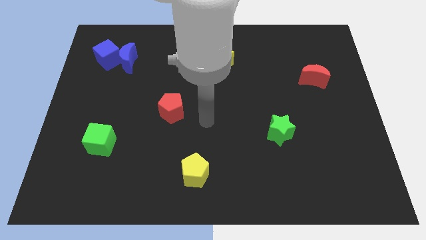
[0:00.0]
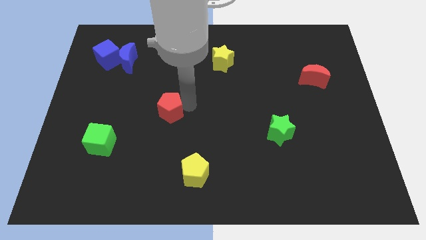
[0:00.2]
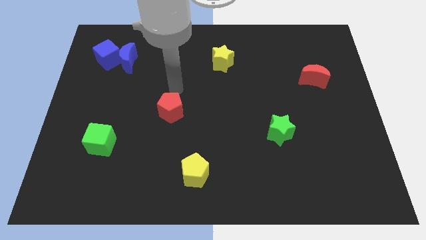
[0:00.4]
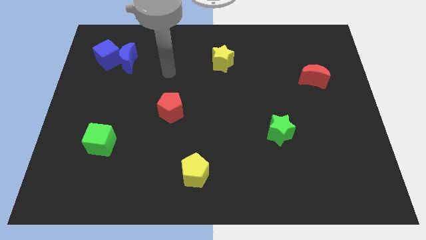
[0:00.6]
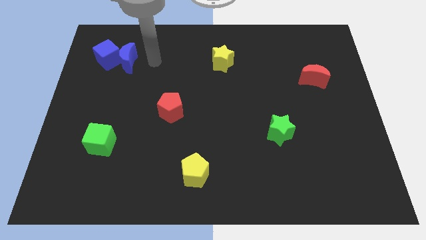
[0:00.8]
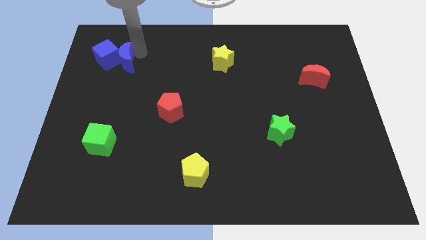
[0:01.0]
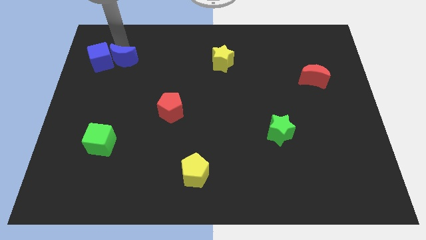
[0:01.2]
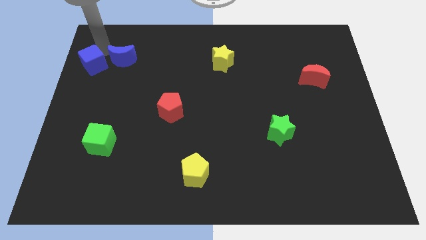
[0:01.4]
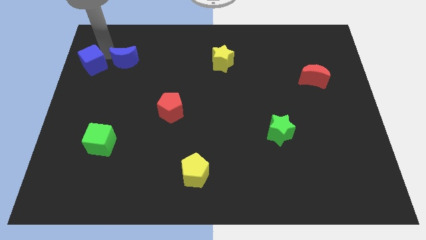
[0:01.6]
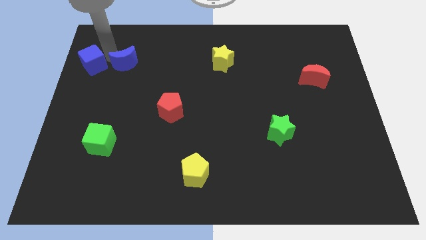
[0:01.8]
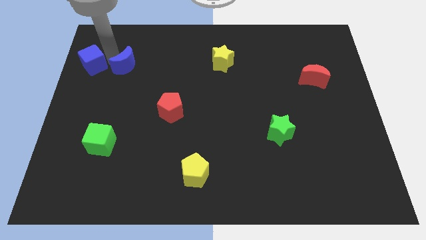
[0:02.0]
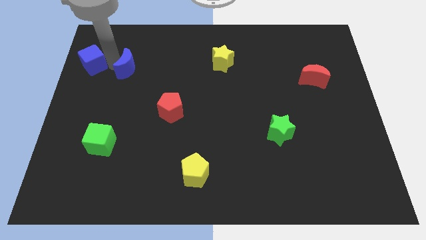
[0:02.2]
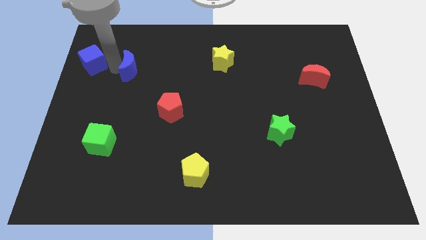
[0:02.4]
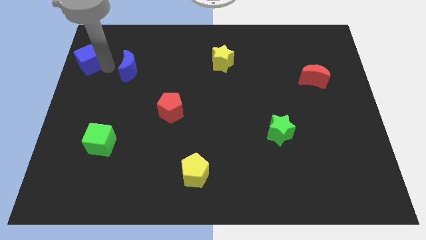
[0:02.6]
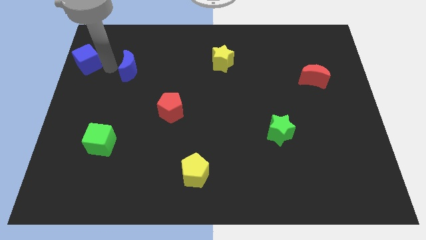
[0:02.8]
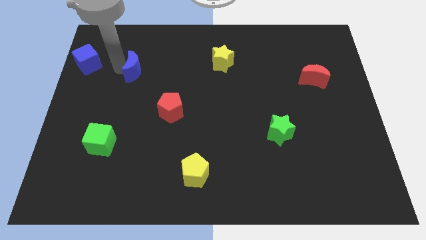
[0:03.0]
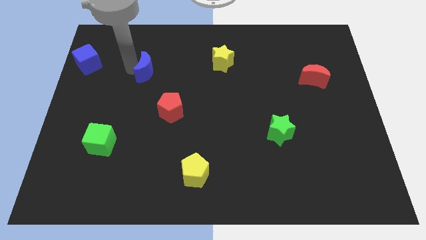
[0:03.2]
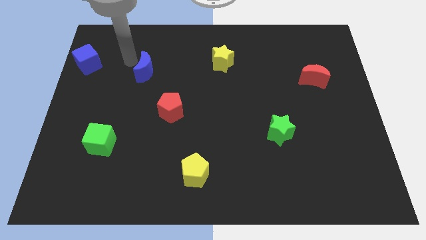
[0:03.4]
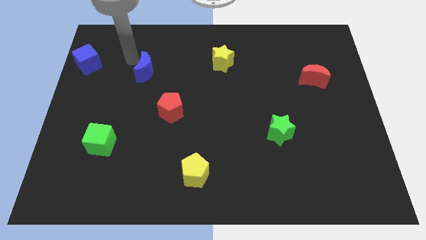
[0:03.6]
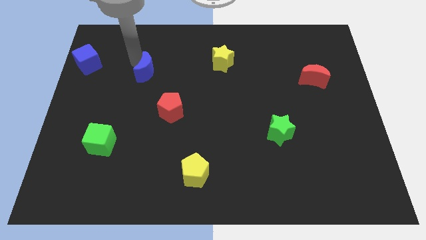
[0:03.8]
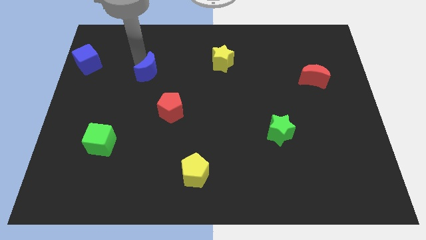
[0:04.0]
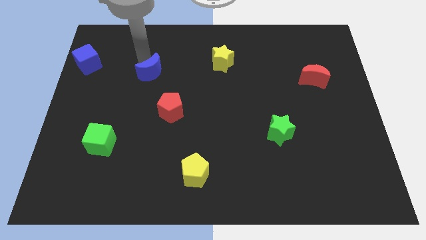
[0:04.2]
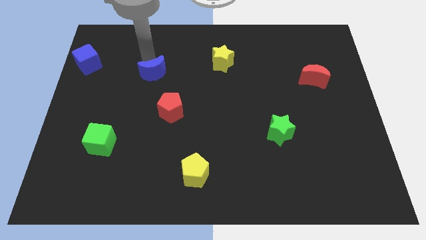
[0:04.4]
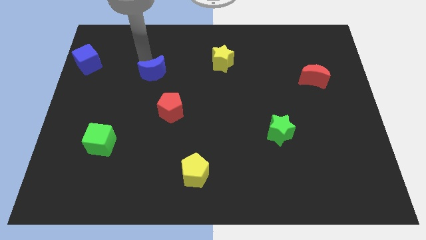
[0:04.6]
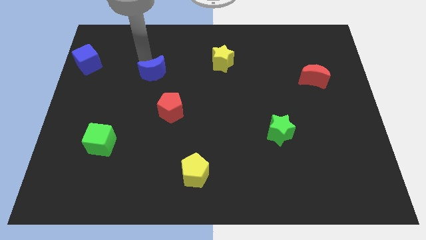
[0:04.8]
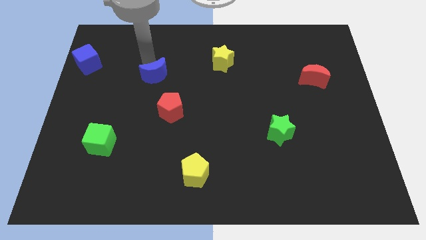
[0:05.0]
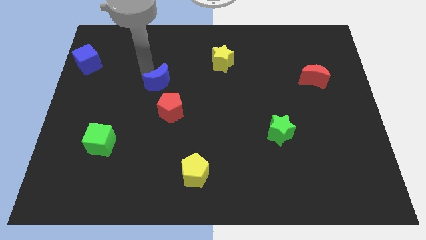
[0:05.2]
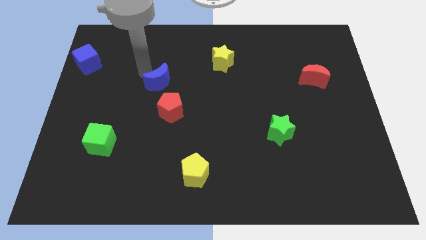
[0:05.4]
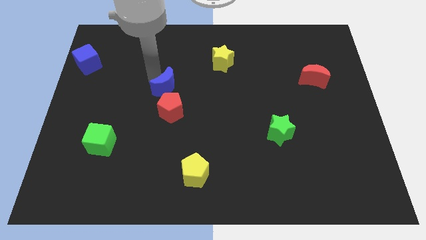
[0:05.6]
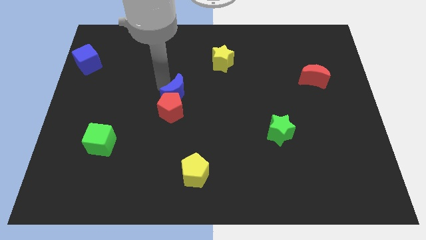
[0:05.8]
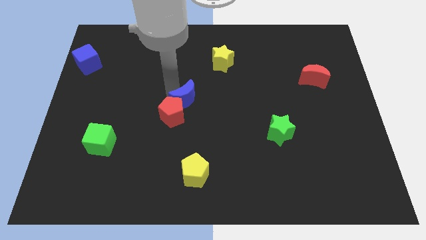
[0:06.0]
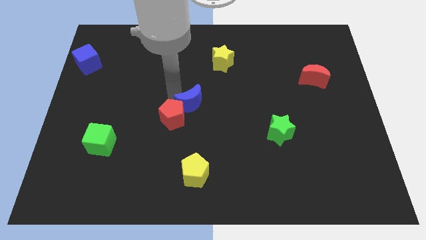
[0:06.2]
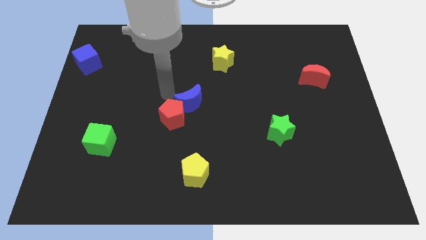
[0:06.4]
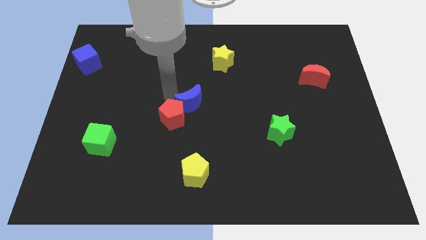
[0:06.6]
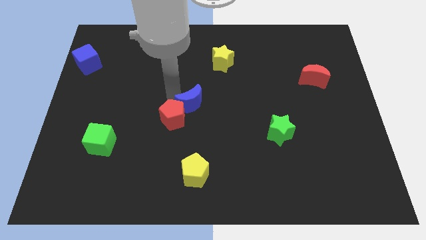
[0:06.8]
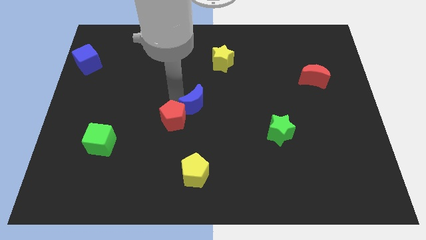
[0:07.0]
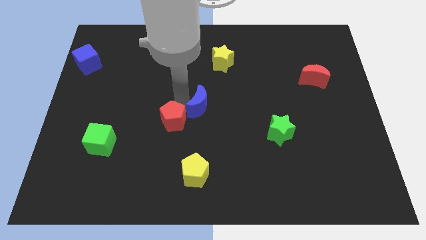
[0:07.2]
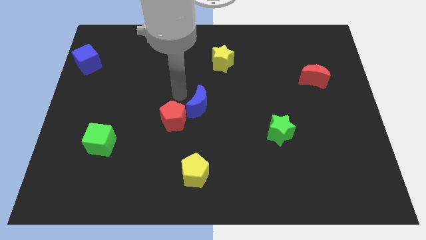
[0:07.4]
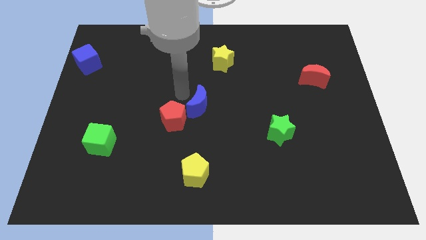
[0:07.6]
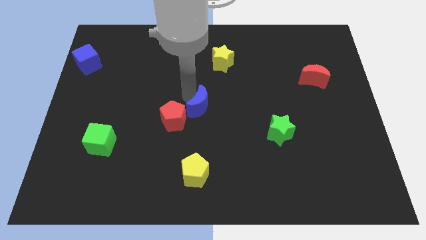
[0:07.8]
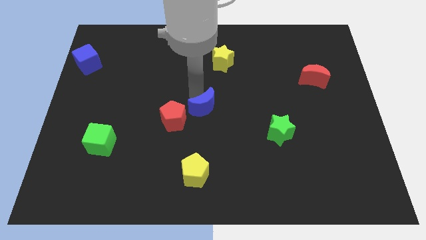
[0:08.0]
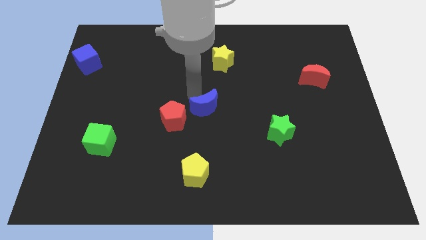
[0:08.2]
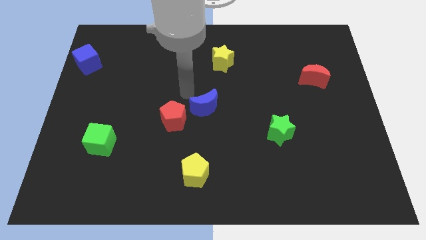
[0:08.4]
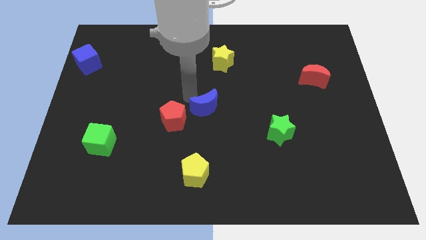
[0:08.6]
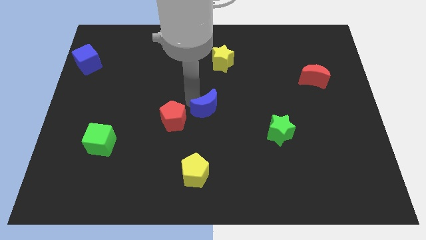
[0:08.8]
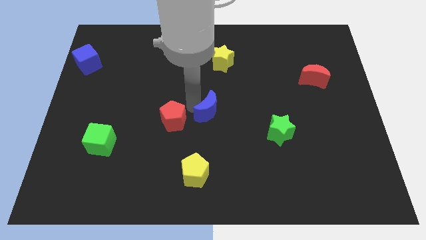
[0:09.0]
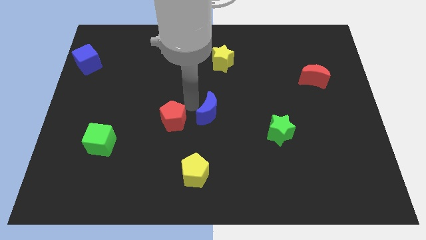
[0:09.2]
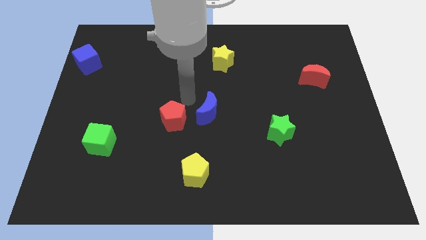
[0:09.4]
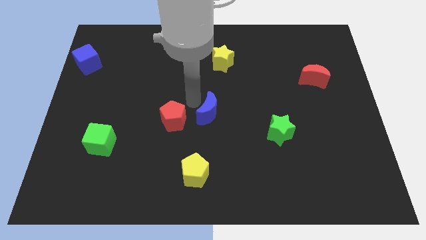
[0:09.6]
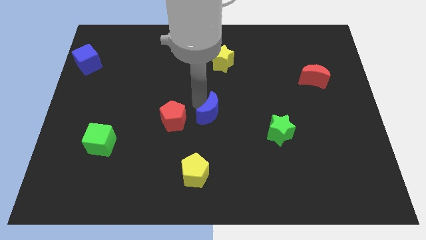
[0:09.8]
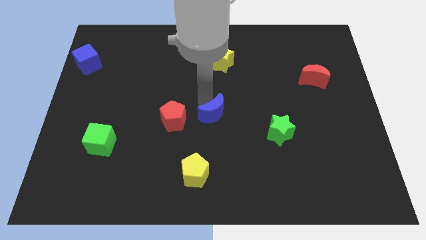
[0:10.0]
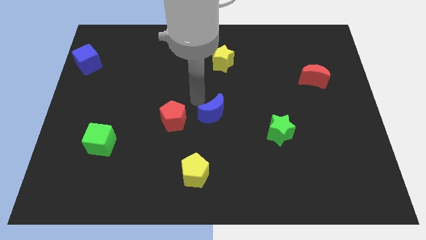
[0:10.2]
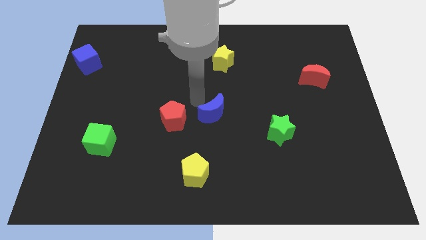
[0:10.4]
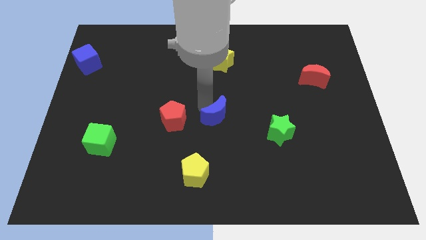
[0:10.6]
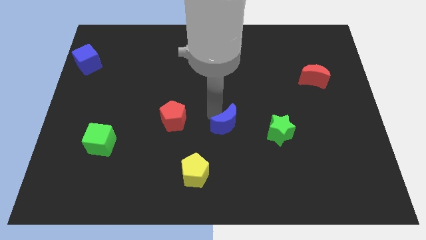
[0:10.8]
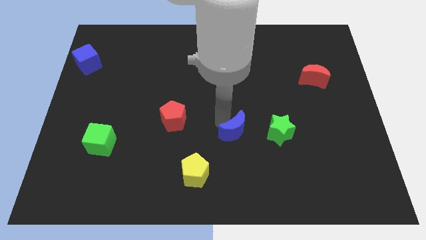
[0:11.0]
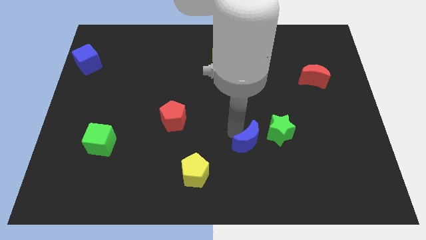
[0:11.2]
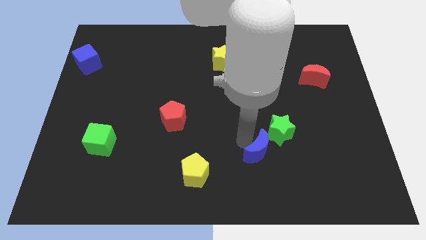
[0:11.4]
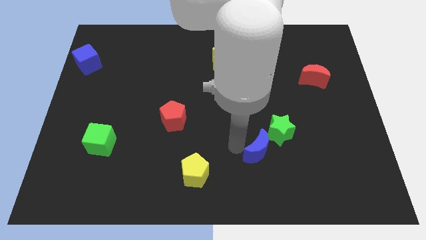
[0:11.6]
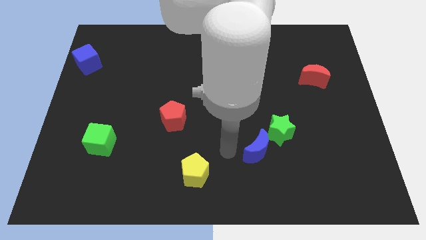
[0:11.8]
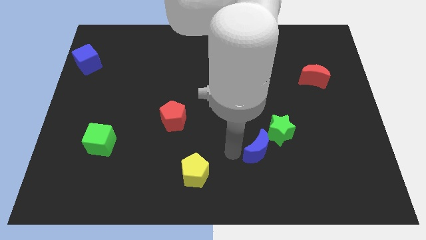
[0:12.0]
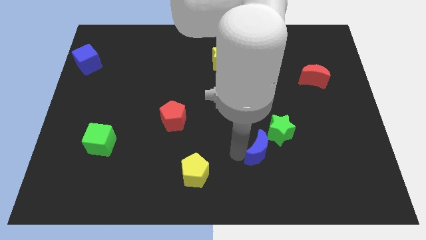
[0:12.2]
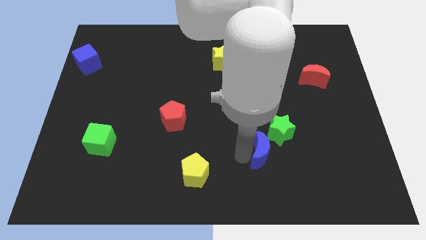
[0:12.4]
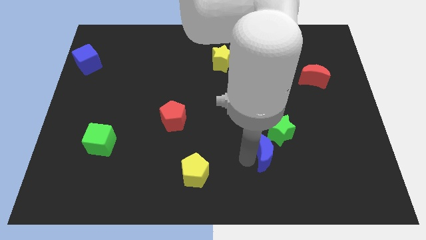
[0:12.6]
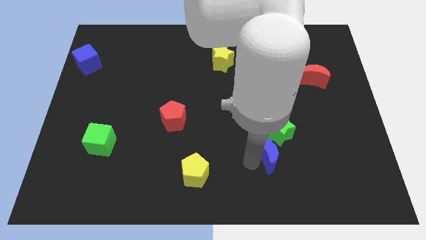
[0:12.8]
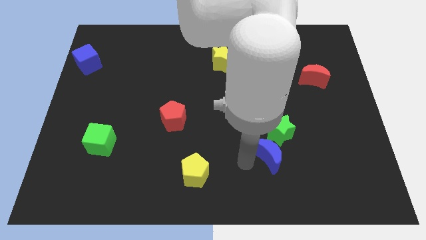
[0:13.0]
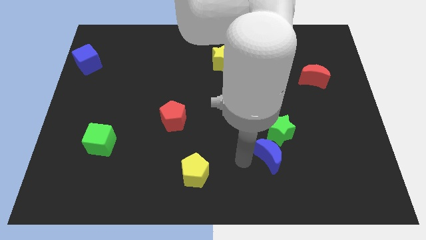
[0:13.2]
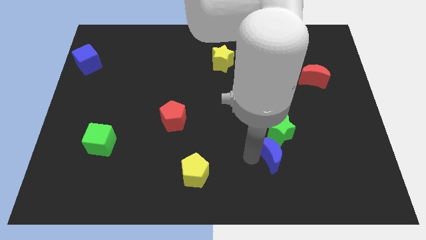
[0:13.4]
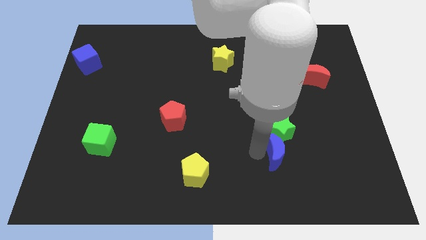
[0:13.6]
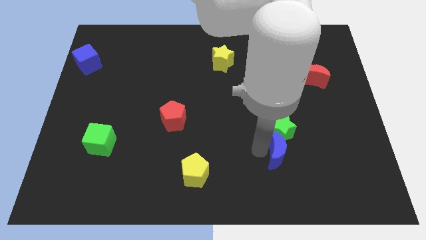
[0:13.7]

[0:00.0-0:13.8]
slide the blue moon diagonally down and to the right of the green star
